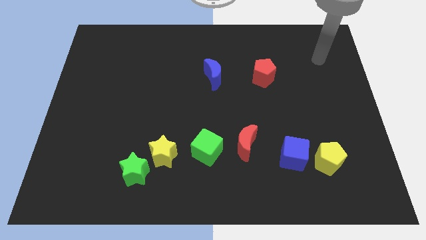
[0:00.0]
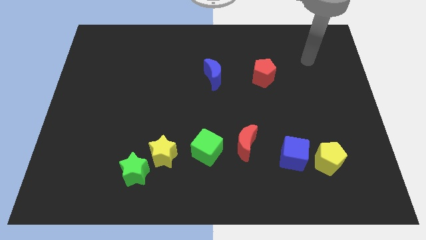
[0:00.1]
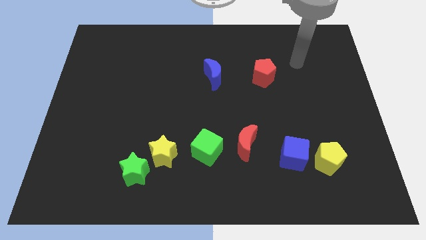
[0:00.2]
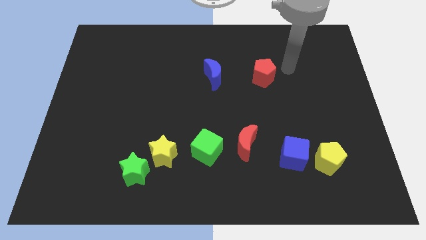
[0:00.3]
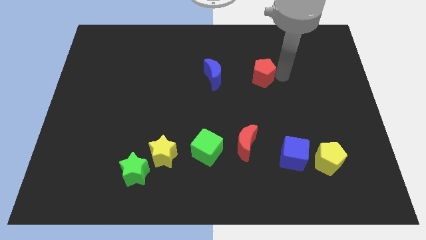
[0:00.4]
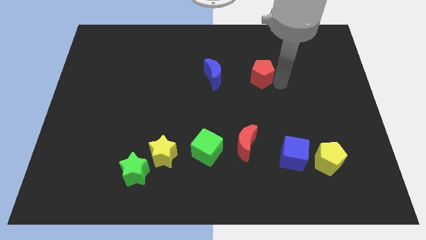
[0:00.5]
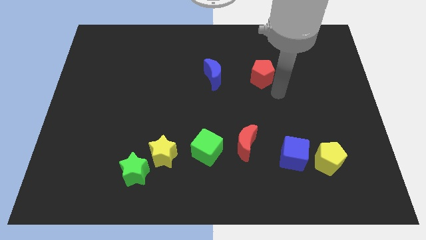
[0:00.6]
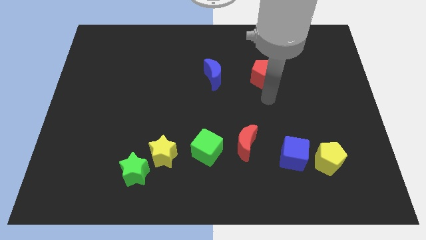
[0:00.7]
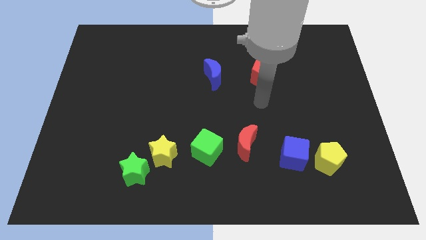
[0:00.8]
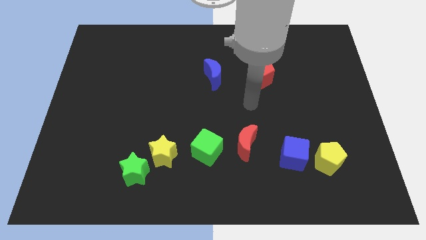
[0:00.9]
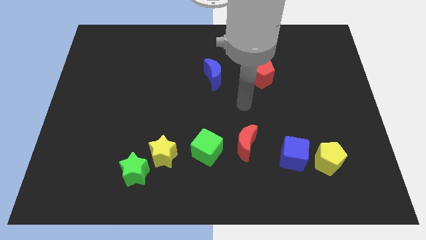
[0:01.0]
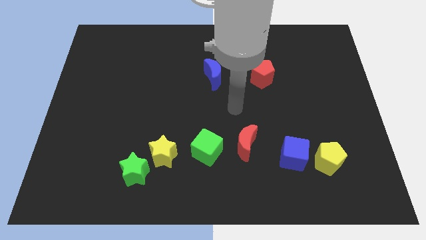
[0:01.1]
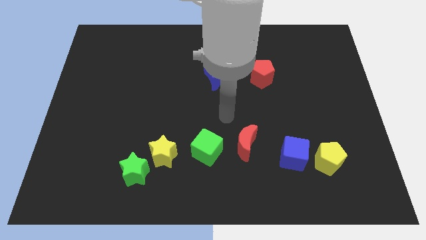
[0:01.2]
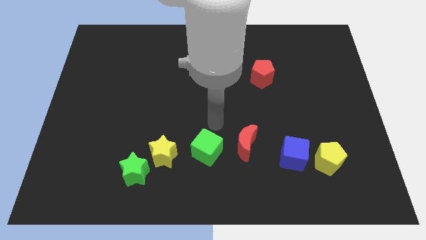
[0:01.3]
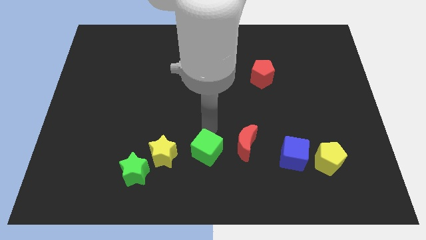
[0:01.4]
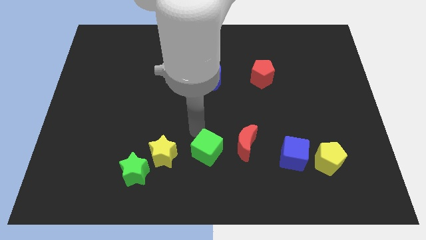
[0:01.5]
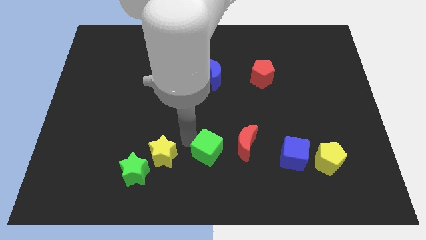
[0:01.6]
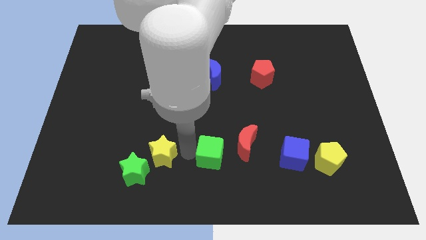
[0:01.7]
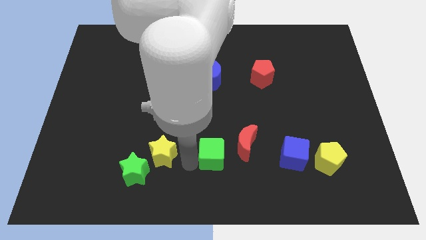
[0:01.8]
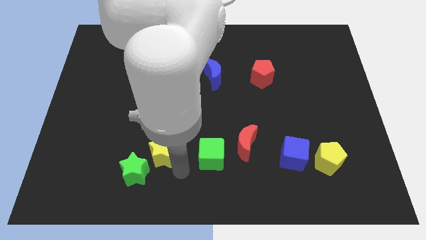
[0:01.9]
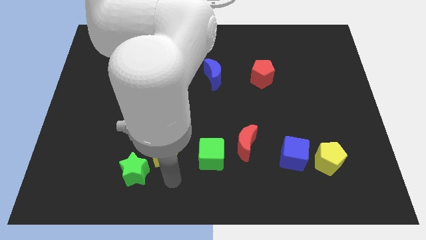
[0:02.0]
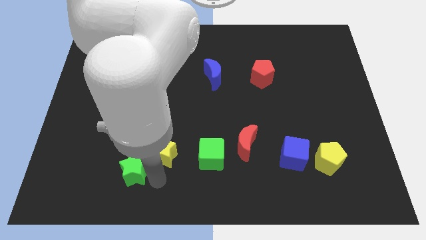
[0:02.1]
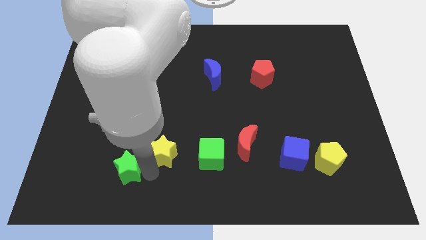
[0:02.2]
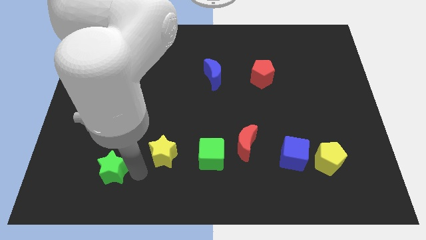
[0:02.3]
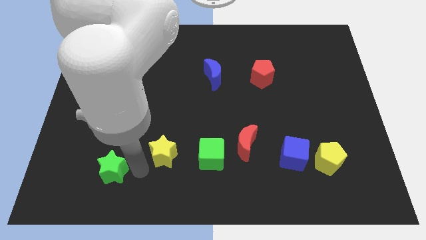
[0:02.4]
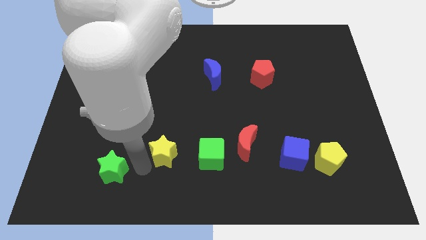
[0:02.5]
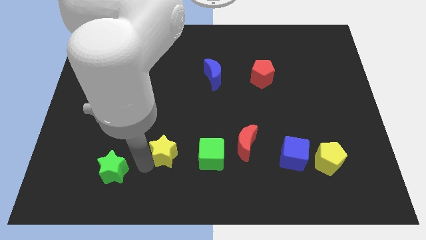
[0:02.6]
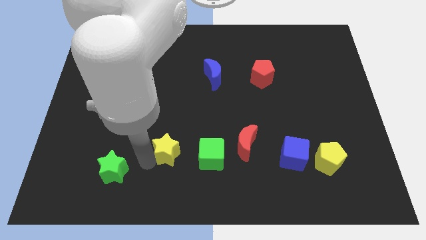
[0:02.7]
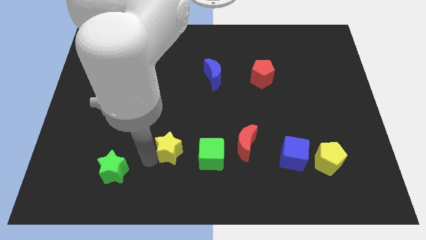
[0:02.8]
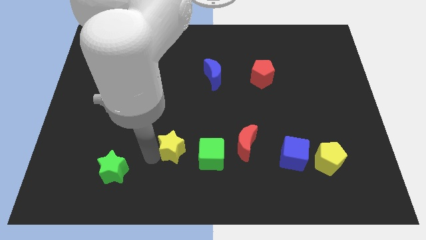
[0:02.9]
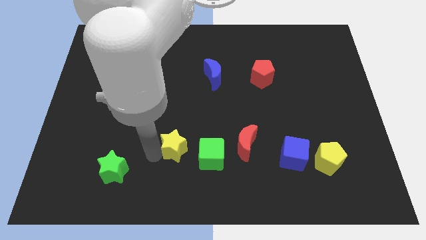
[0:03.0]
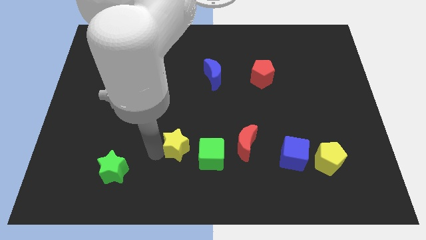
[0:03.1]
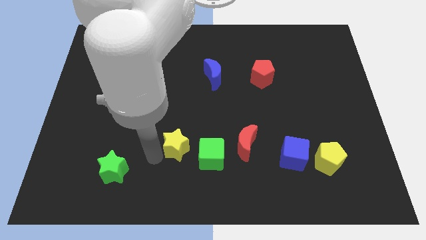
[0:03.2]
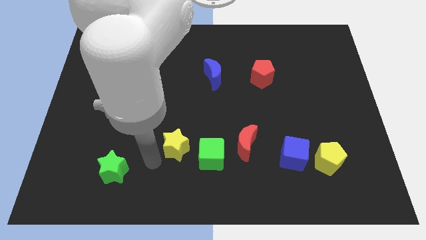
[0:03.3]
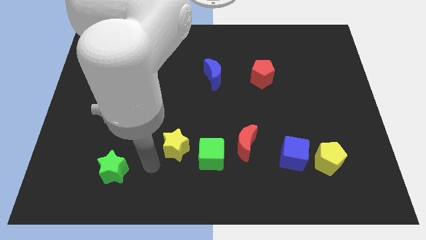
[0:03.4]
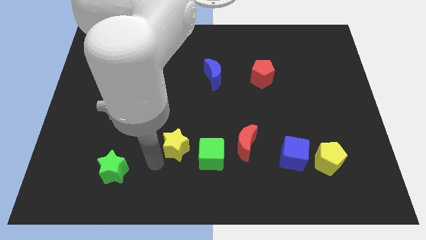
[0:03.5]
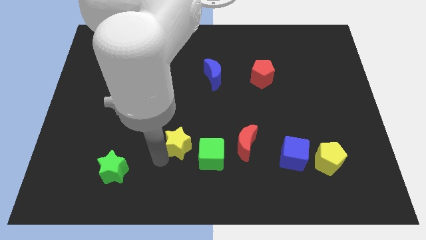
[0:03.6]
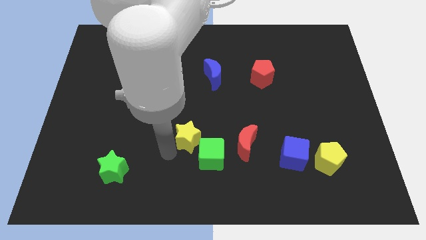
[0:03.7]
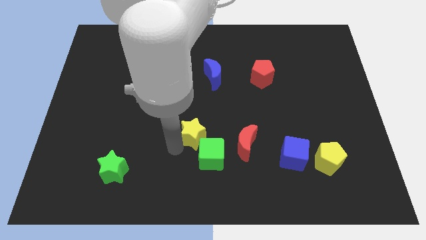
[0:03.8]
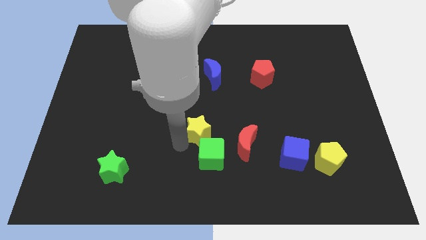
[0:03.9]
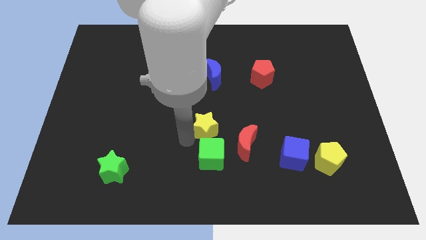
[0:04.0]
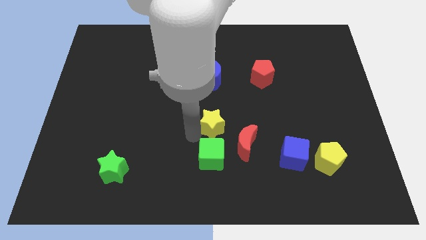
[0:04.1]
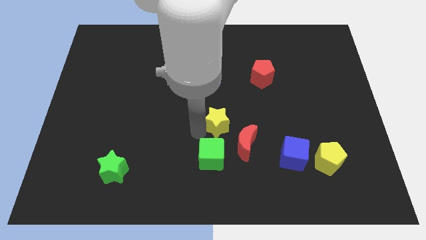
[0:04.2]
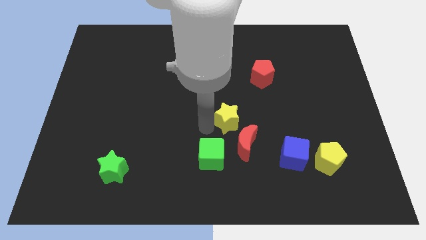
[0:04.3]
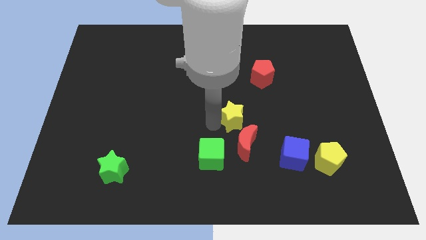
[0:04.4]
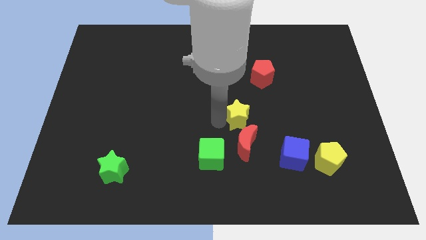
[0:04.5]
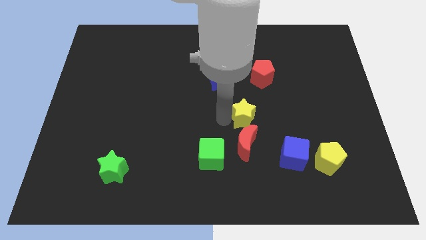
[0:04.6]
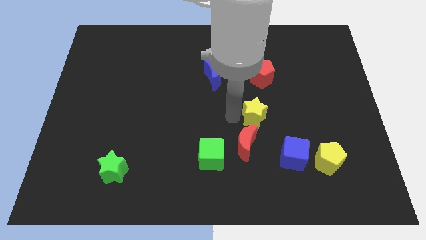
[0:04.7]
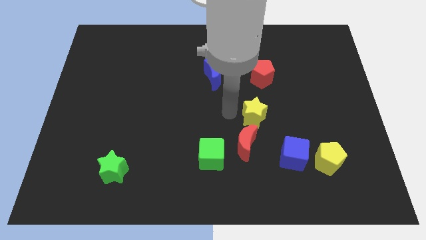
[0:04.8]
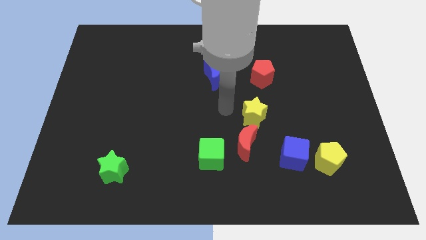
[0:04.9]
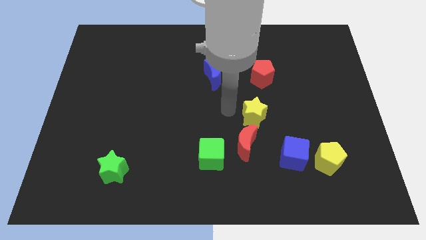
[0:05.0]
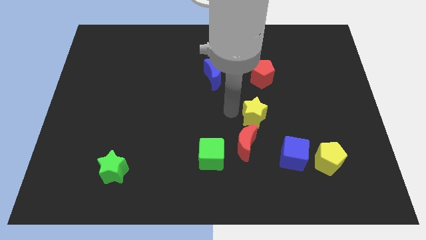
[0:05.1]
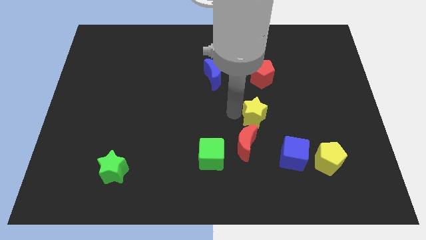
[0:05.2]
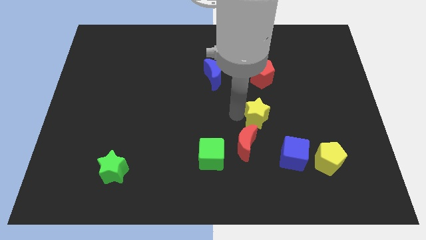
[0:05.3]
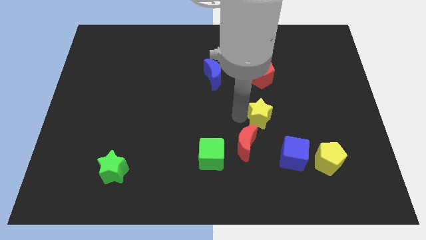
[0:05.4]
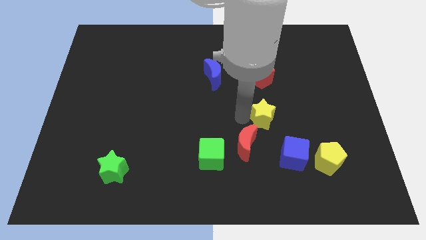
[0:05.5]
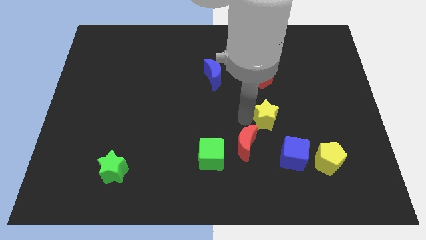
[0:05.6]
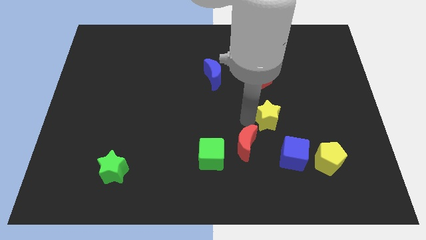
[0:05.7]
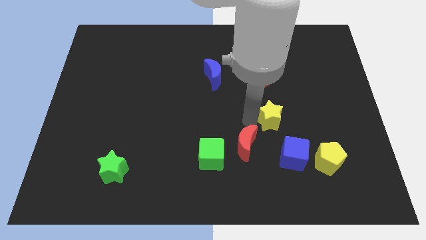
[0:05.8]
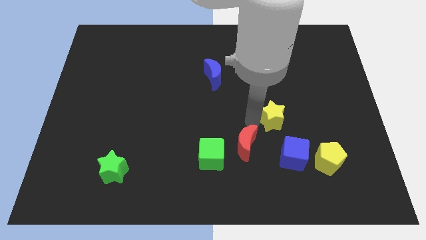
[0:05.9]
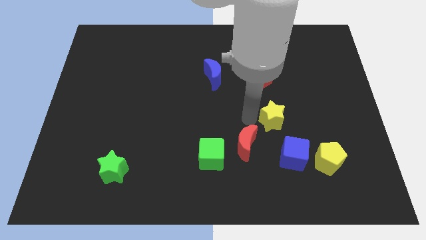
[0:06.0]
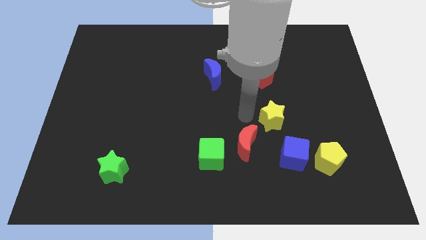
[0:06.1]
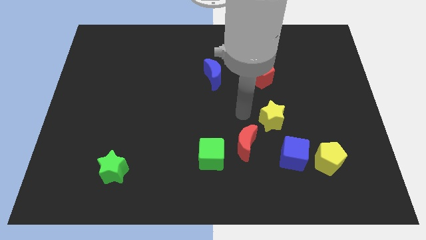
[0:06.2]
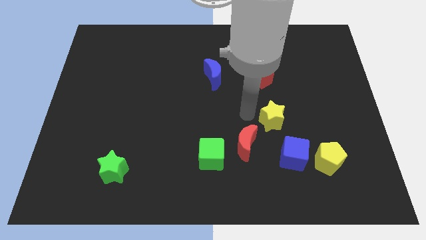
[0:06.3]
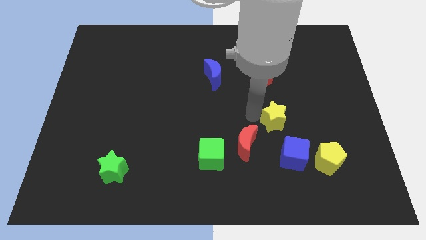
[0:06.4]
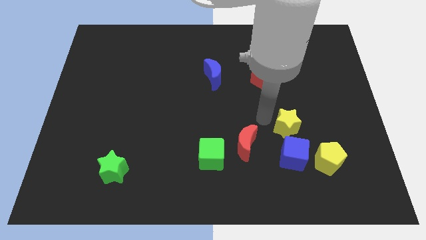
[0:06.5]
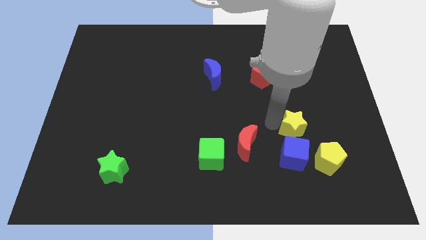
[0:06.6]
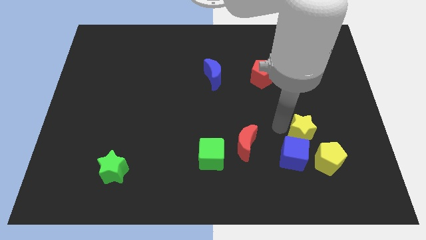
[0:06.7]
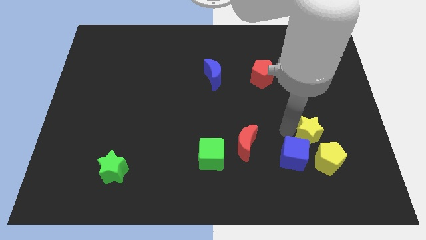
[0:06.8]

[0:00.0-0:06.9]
push the yellow star to the top of the yellow pentagon

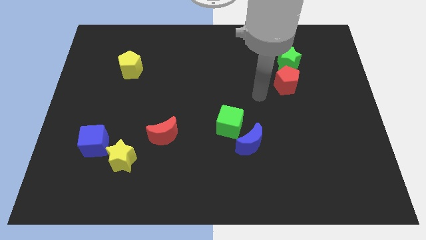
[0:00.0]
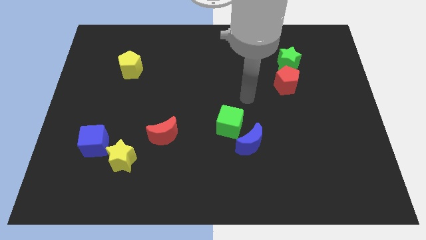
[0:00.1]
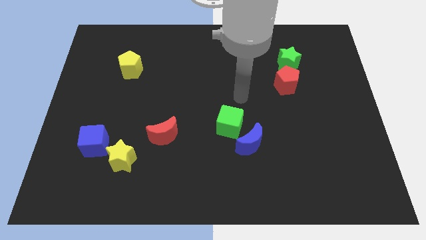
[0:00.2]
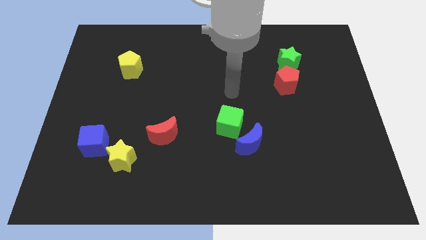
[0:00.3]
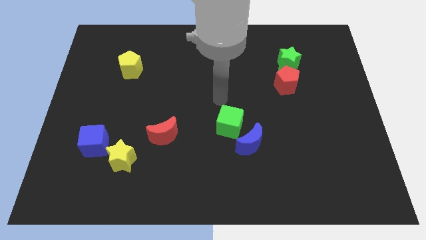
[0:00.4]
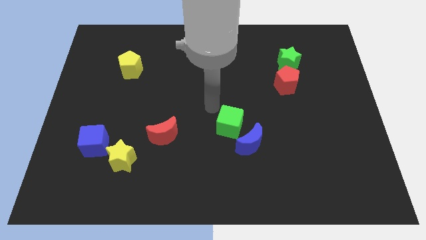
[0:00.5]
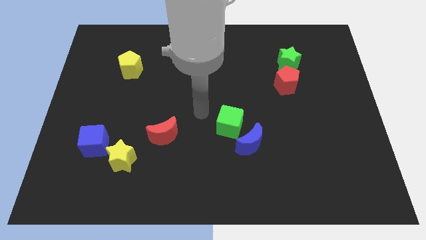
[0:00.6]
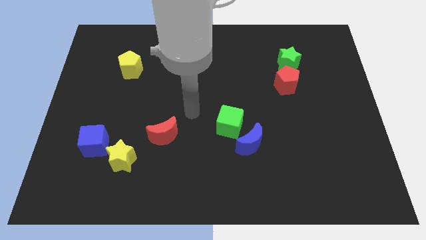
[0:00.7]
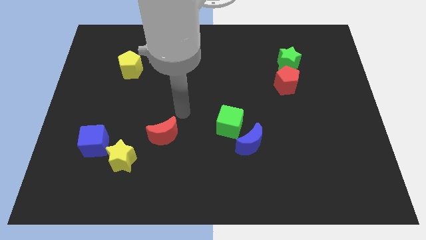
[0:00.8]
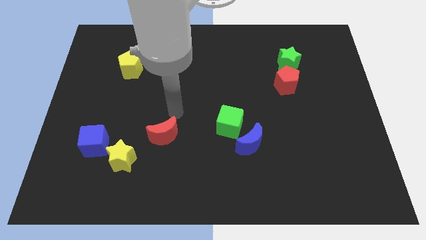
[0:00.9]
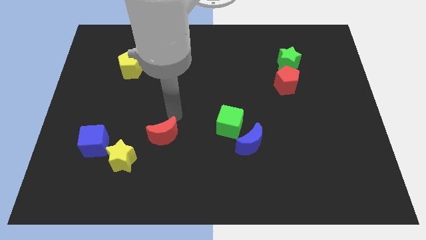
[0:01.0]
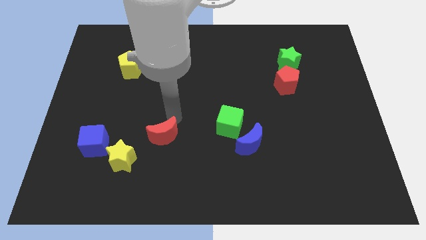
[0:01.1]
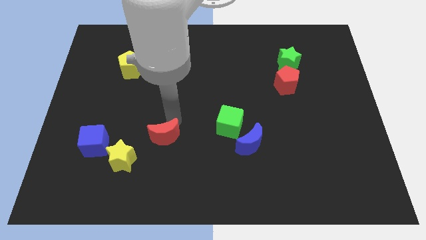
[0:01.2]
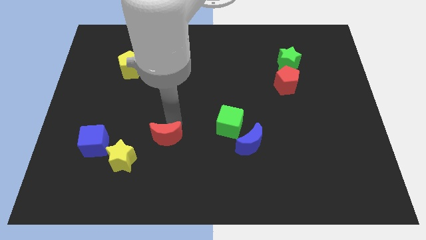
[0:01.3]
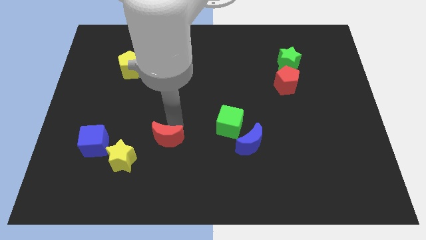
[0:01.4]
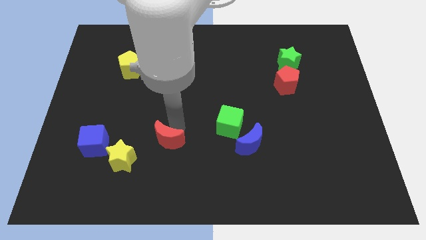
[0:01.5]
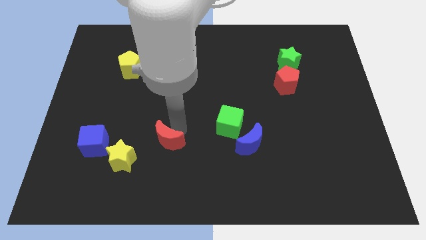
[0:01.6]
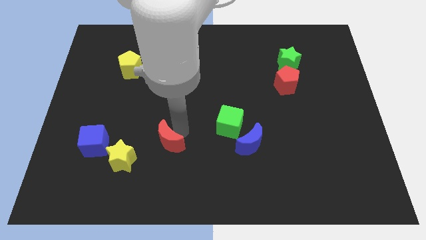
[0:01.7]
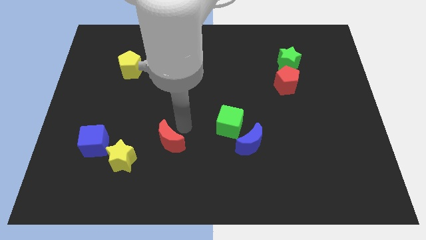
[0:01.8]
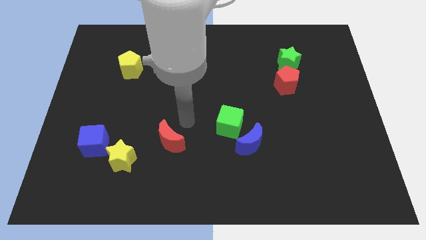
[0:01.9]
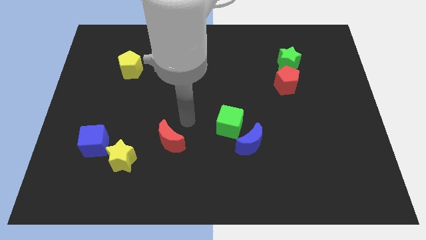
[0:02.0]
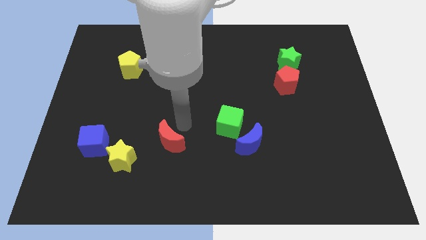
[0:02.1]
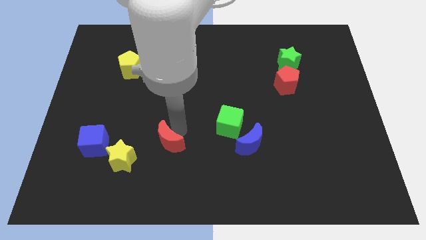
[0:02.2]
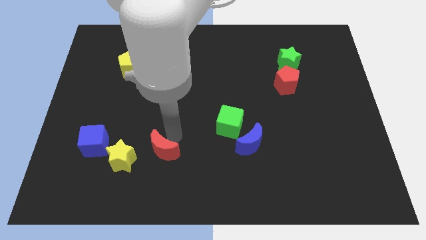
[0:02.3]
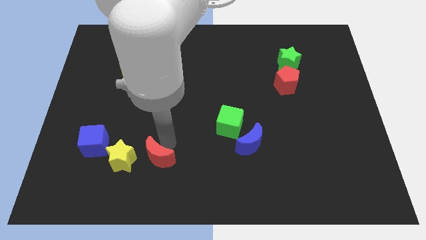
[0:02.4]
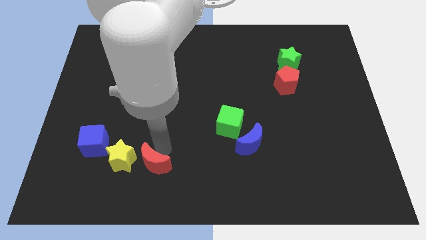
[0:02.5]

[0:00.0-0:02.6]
push the red moon diagonally down and to the right of the yellow star
